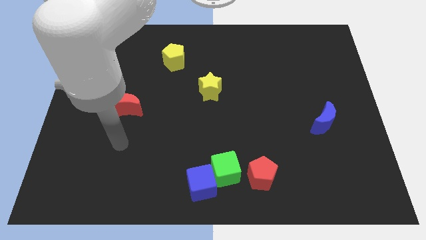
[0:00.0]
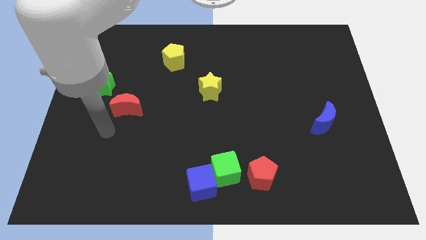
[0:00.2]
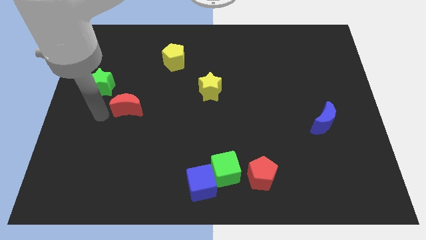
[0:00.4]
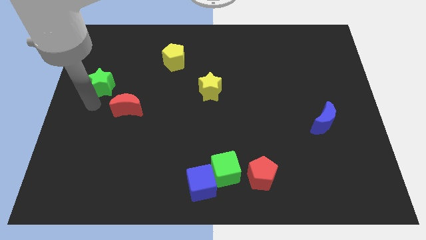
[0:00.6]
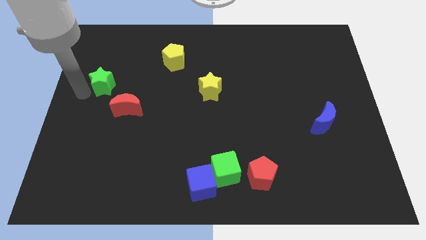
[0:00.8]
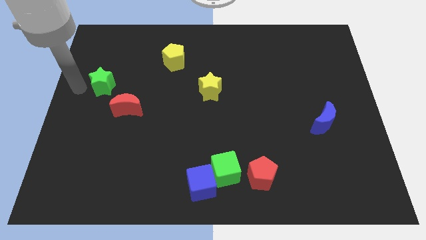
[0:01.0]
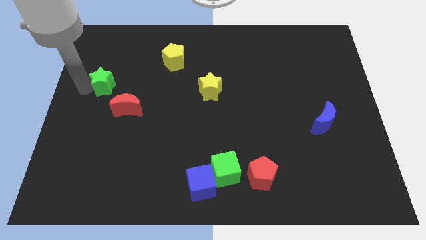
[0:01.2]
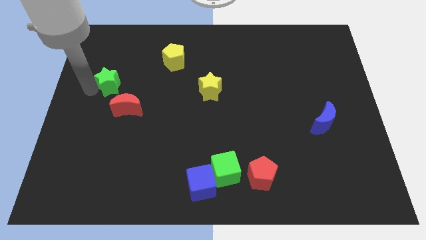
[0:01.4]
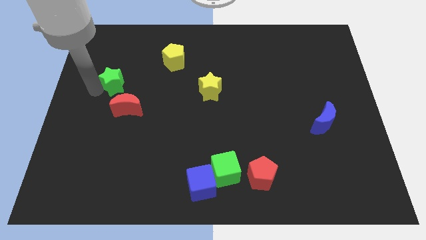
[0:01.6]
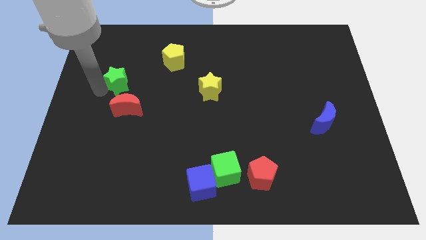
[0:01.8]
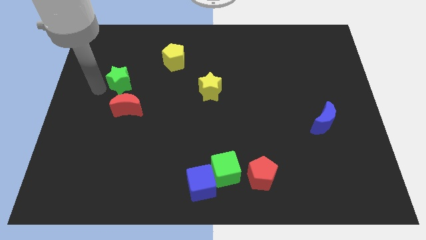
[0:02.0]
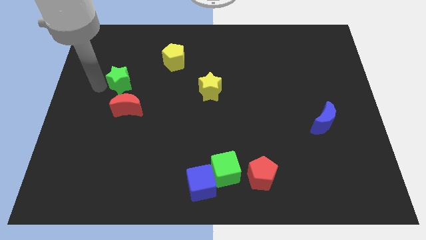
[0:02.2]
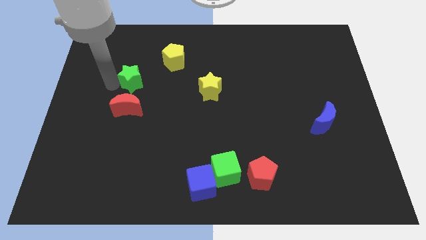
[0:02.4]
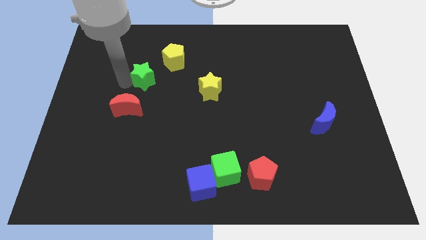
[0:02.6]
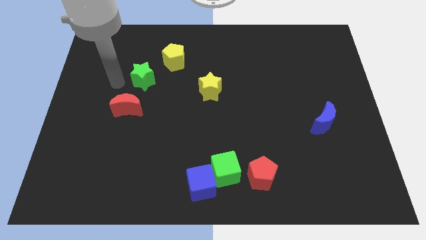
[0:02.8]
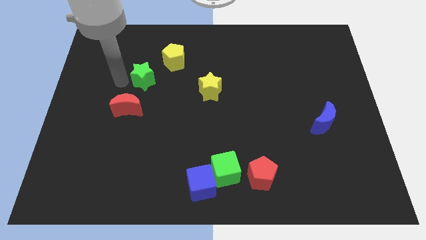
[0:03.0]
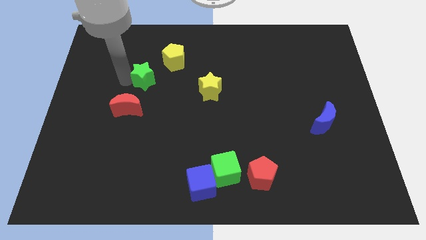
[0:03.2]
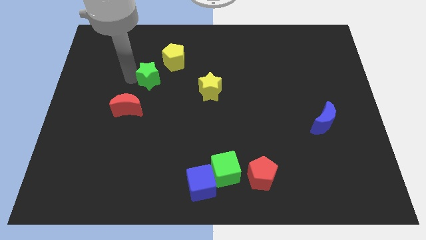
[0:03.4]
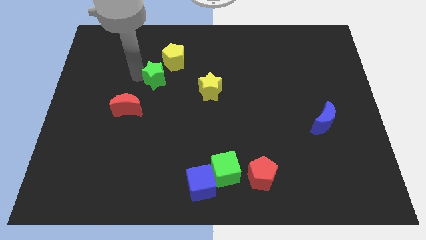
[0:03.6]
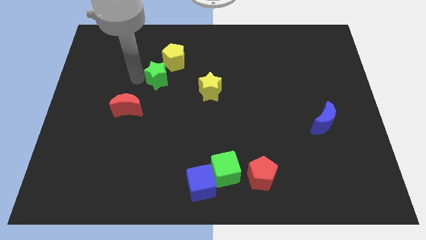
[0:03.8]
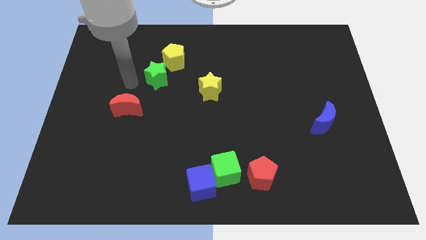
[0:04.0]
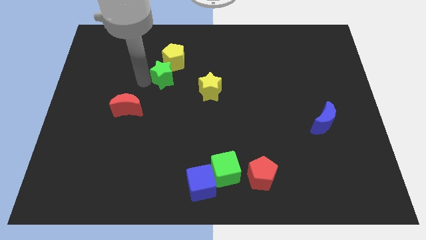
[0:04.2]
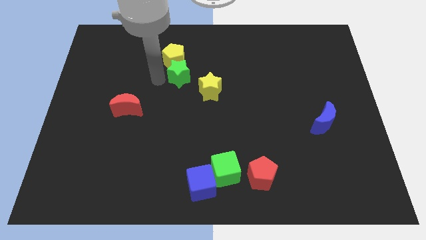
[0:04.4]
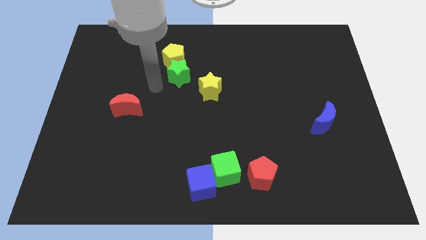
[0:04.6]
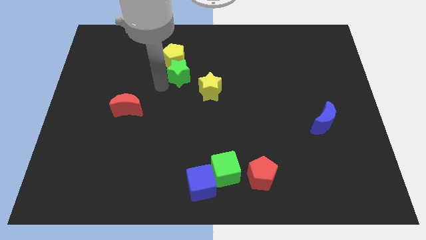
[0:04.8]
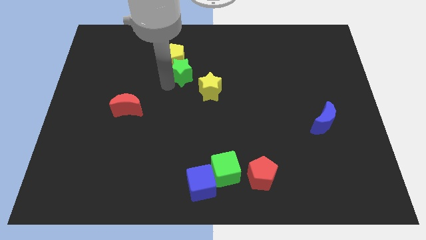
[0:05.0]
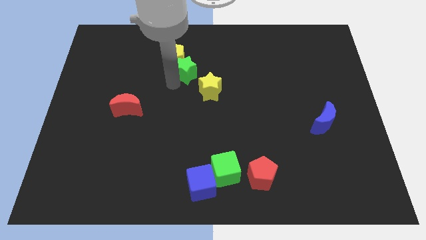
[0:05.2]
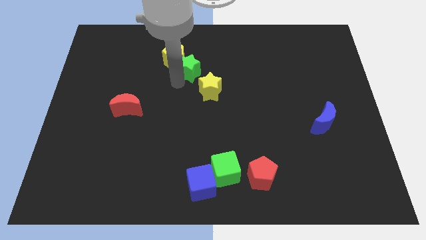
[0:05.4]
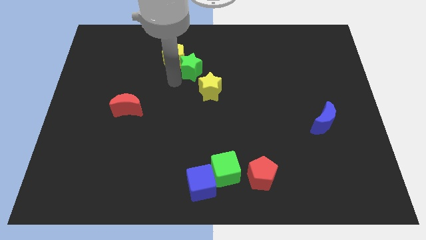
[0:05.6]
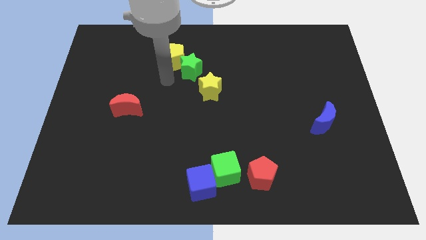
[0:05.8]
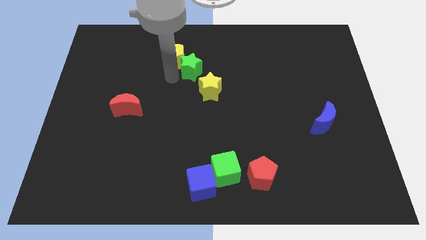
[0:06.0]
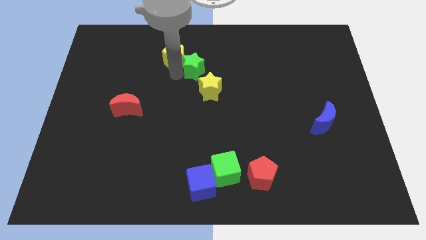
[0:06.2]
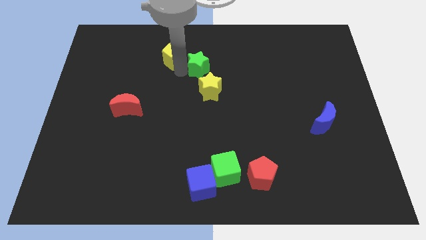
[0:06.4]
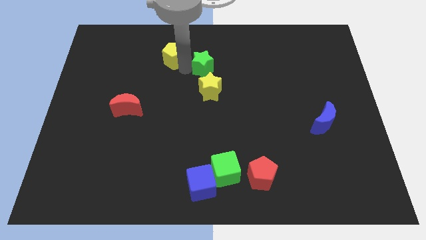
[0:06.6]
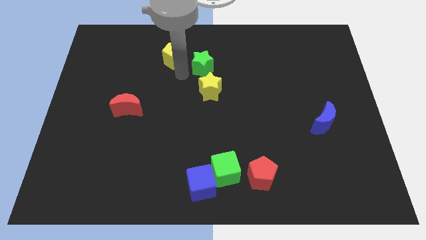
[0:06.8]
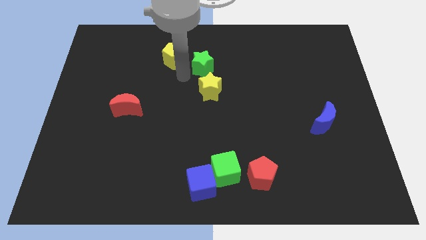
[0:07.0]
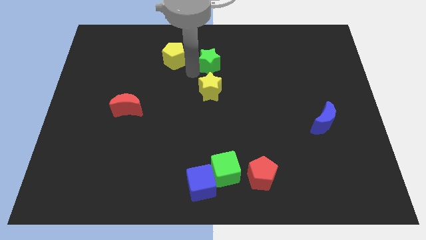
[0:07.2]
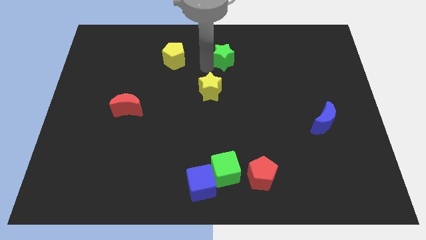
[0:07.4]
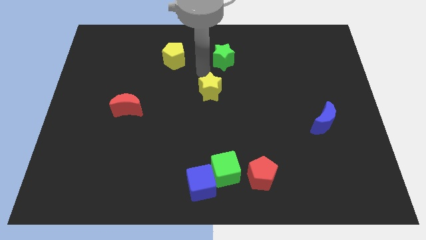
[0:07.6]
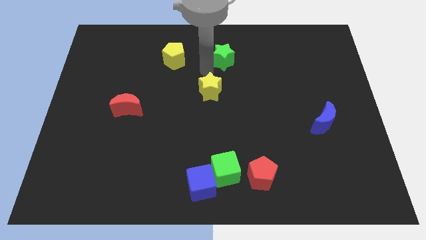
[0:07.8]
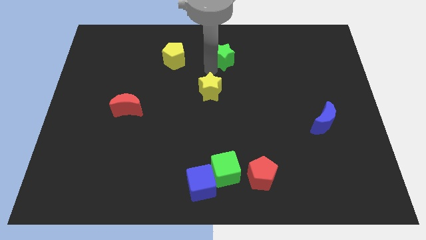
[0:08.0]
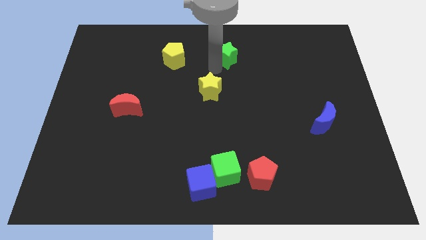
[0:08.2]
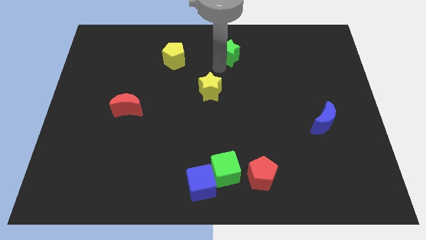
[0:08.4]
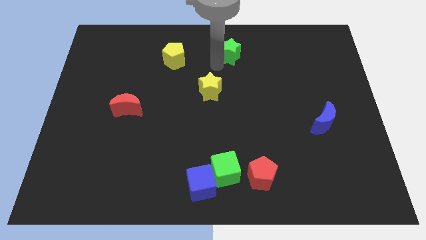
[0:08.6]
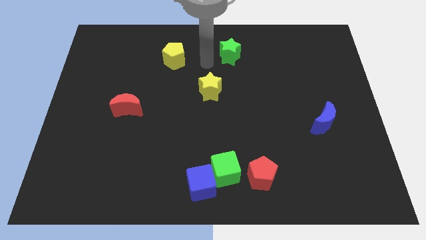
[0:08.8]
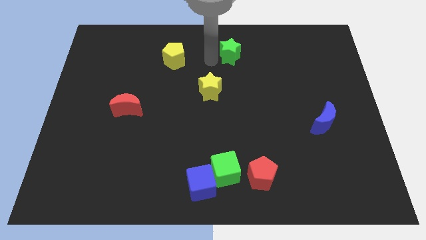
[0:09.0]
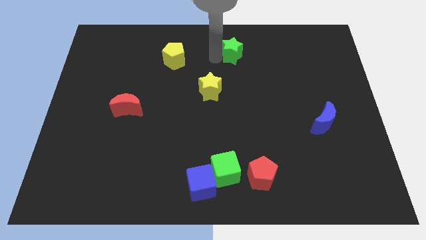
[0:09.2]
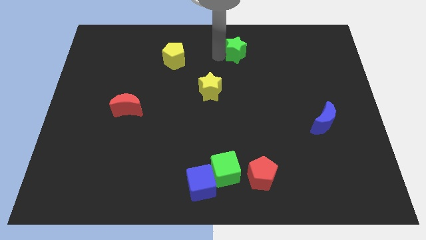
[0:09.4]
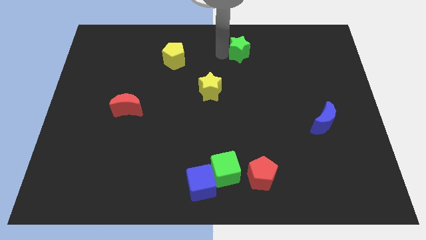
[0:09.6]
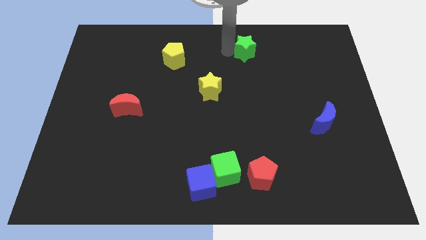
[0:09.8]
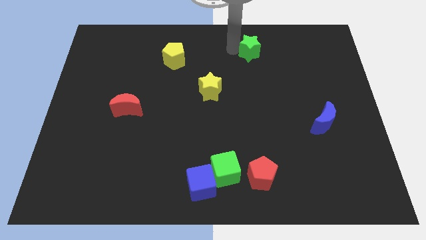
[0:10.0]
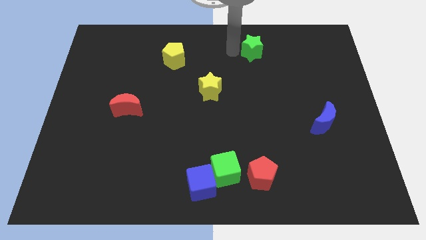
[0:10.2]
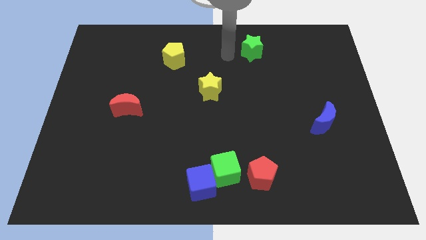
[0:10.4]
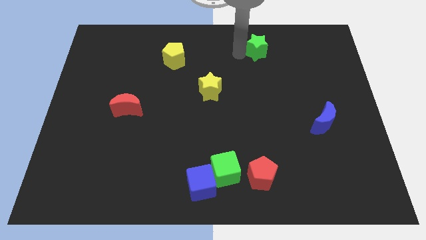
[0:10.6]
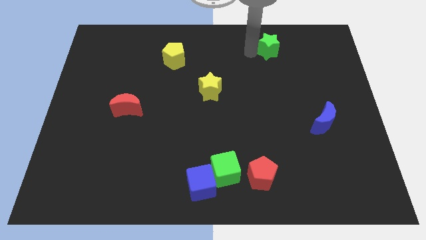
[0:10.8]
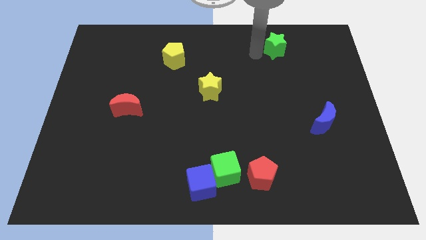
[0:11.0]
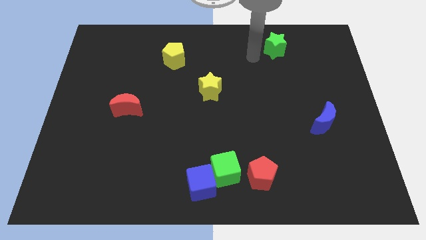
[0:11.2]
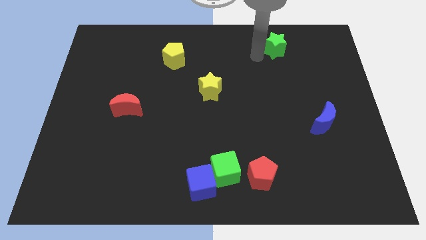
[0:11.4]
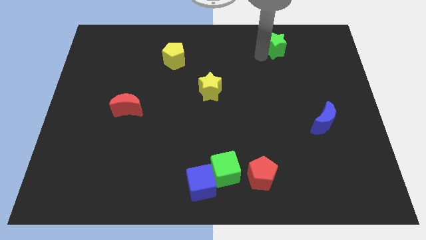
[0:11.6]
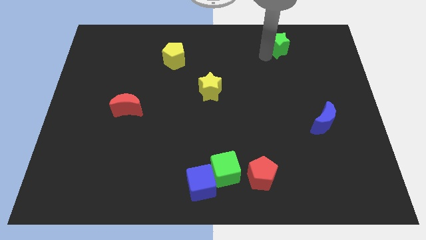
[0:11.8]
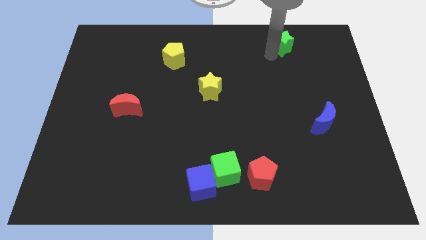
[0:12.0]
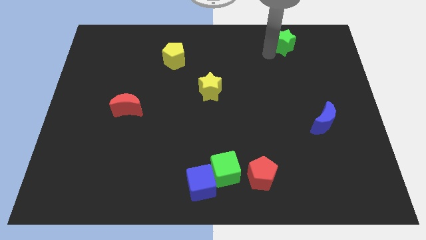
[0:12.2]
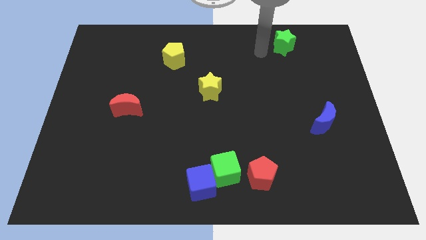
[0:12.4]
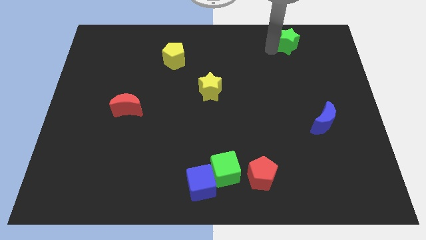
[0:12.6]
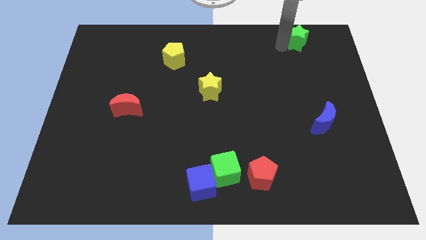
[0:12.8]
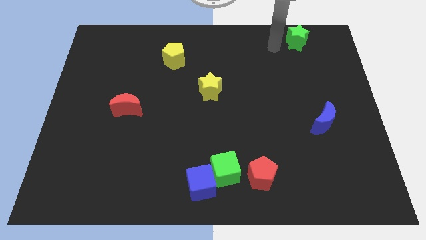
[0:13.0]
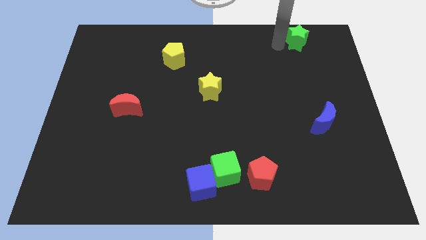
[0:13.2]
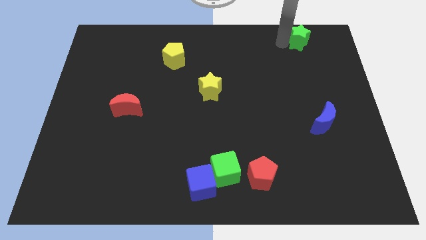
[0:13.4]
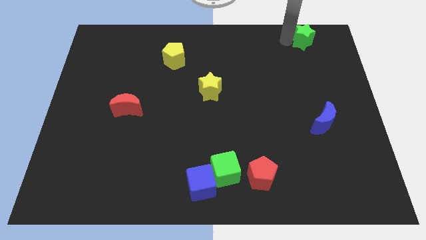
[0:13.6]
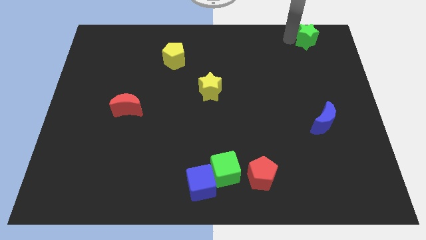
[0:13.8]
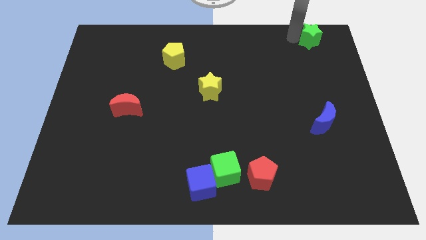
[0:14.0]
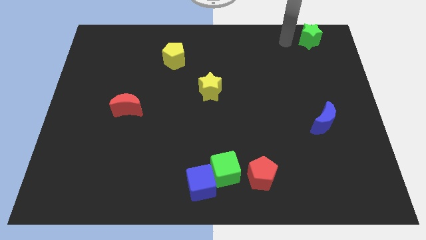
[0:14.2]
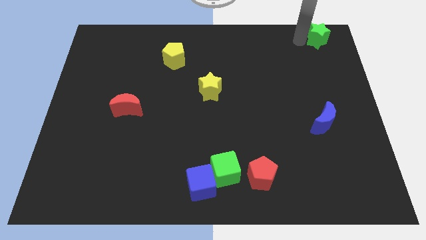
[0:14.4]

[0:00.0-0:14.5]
put the green star to the upper right corner
